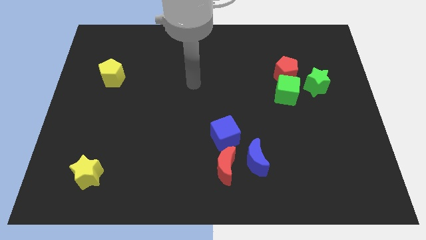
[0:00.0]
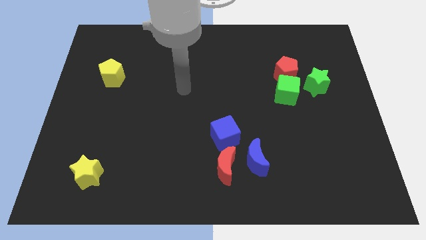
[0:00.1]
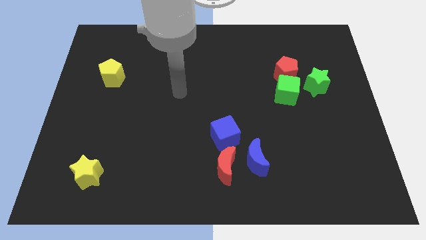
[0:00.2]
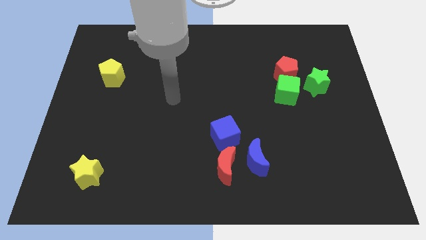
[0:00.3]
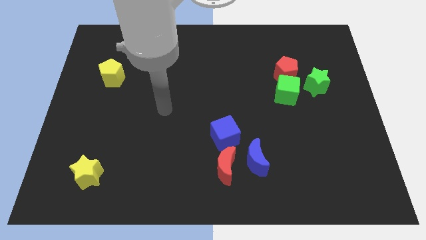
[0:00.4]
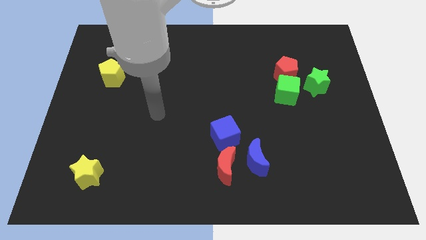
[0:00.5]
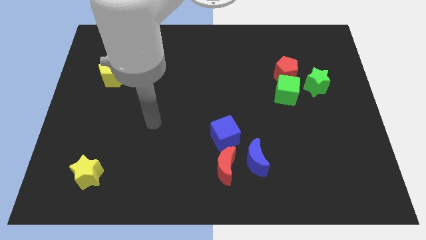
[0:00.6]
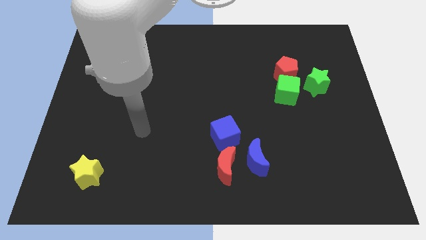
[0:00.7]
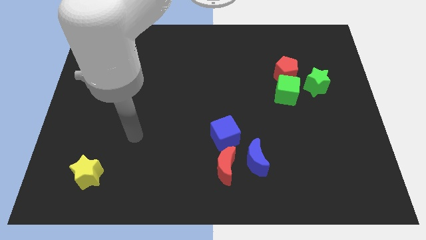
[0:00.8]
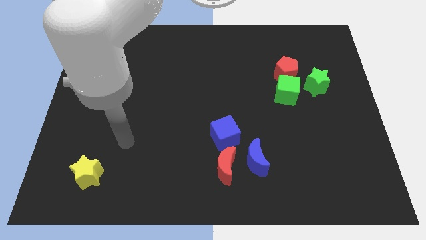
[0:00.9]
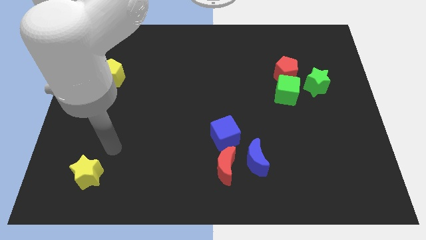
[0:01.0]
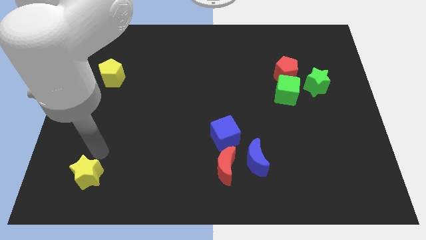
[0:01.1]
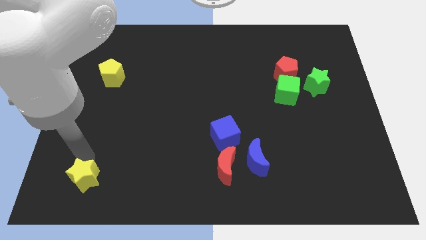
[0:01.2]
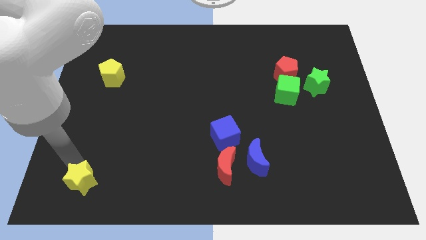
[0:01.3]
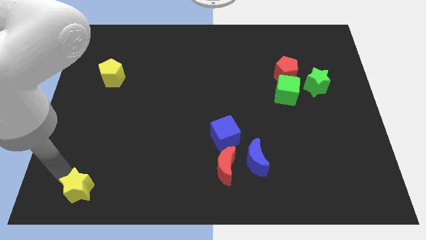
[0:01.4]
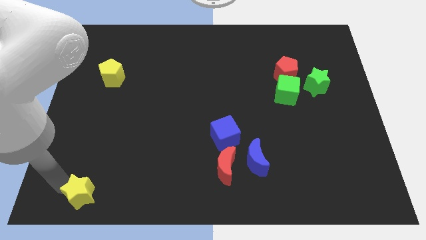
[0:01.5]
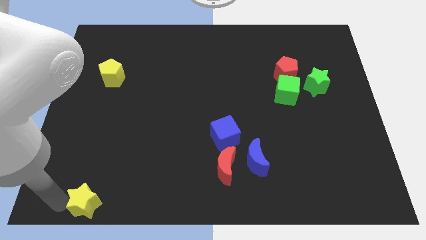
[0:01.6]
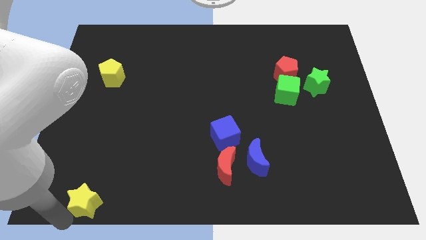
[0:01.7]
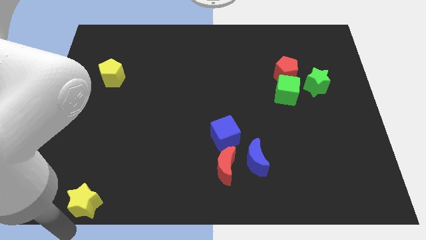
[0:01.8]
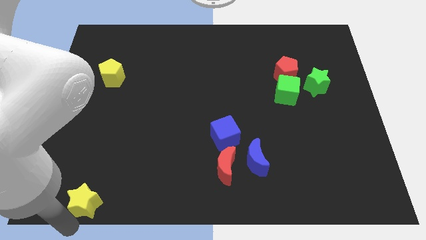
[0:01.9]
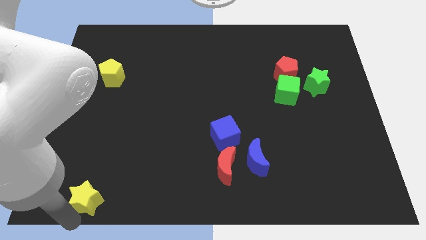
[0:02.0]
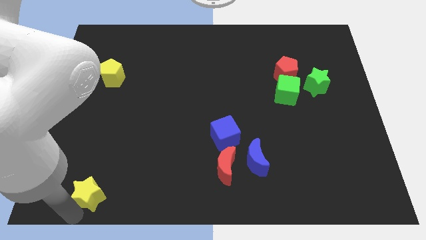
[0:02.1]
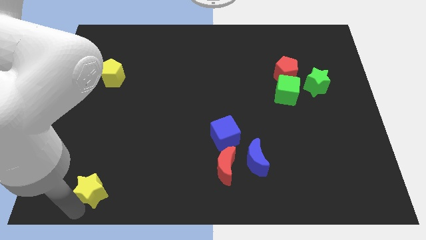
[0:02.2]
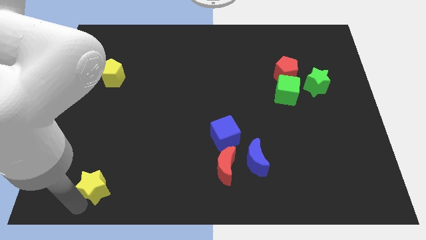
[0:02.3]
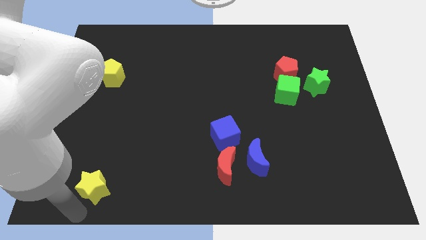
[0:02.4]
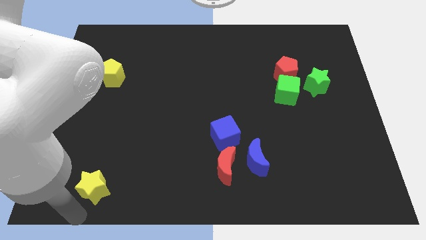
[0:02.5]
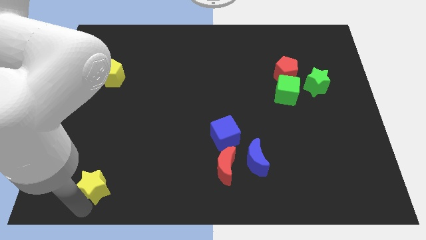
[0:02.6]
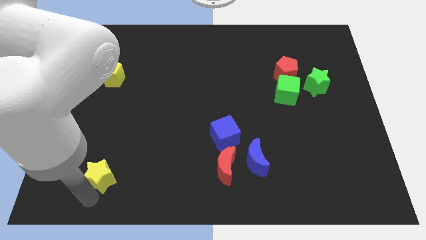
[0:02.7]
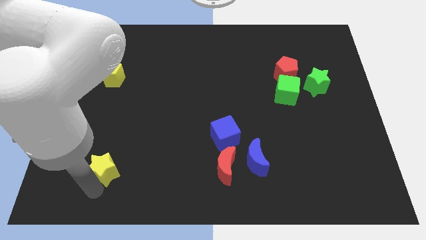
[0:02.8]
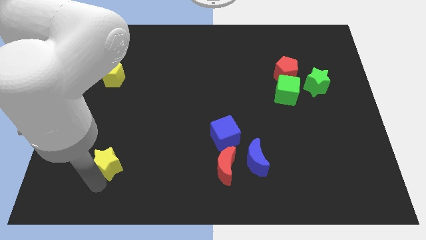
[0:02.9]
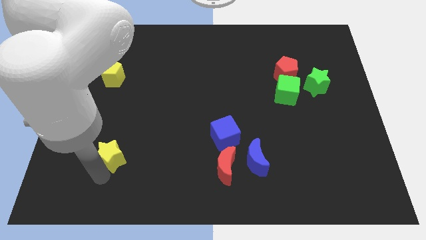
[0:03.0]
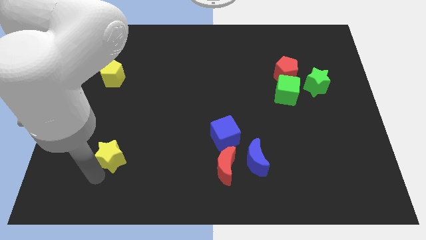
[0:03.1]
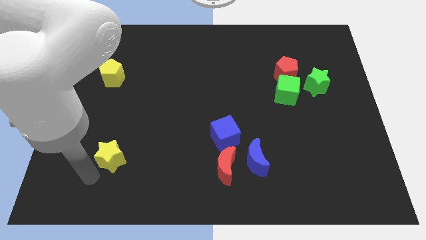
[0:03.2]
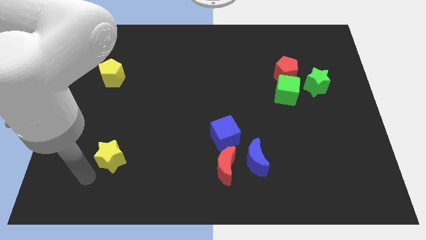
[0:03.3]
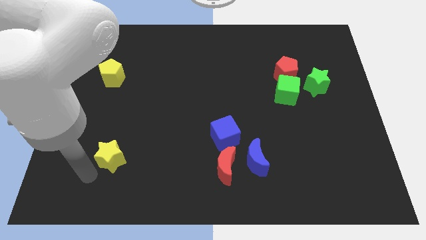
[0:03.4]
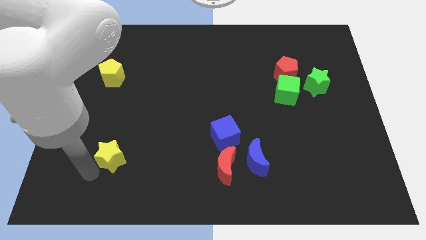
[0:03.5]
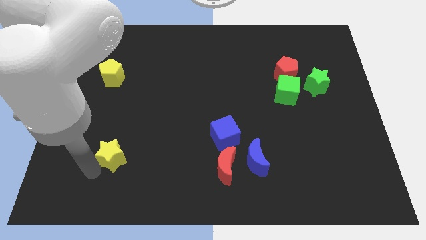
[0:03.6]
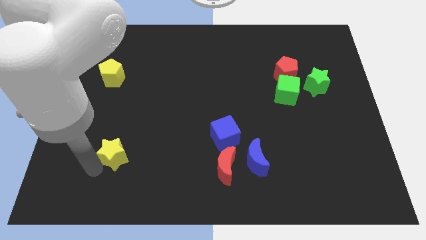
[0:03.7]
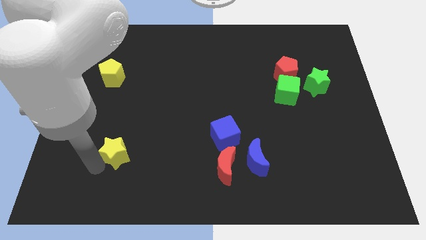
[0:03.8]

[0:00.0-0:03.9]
push the yellow star somewhat diagonally upwards and right

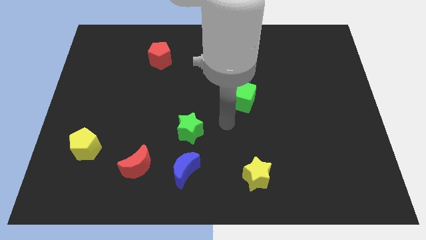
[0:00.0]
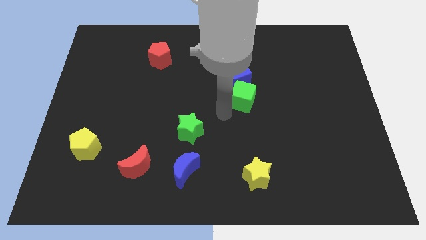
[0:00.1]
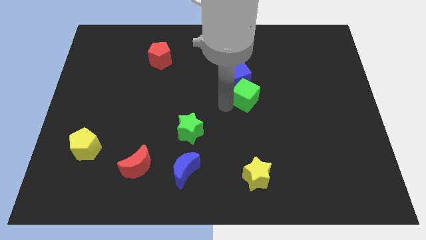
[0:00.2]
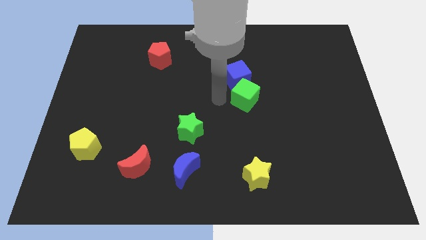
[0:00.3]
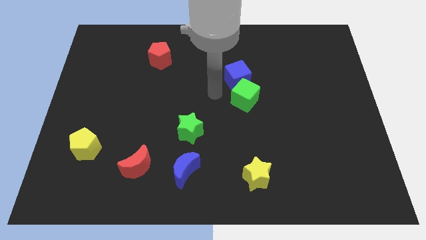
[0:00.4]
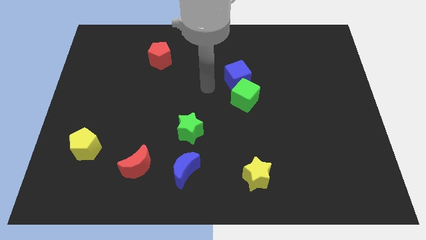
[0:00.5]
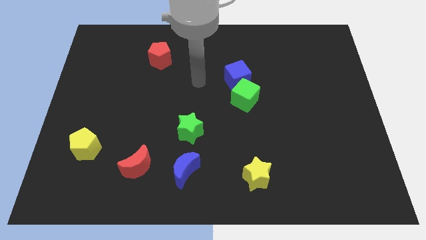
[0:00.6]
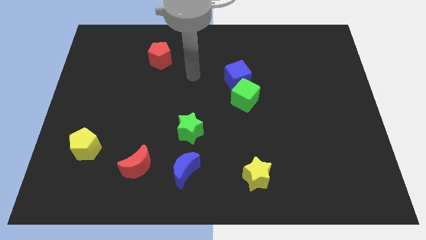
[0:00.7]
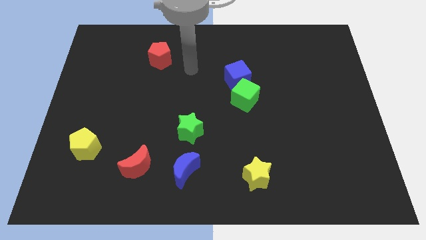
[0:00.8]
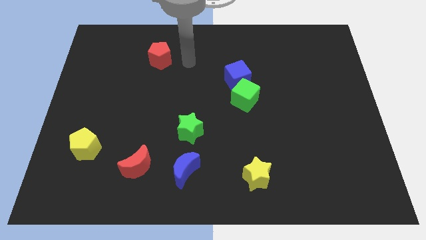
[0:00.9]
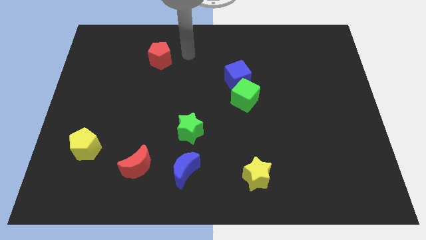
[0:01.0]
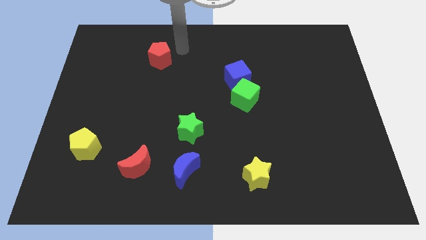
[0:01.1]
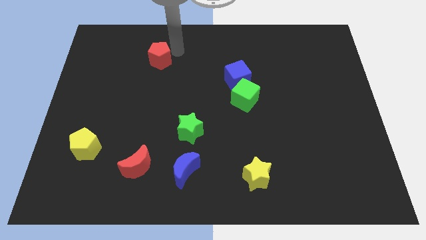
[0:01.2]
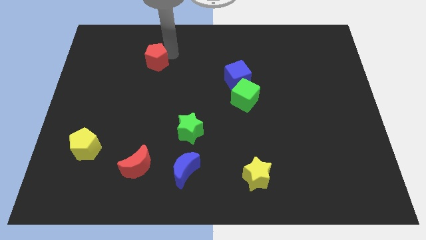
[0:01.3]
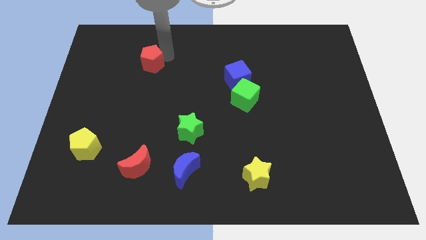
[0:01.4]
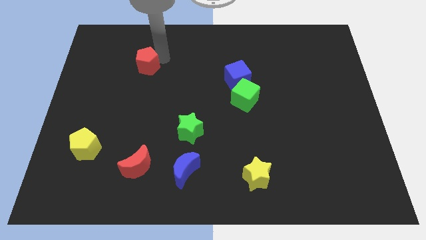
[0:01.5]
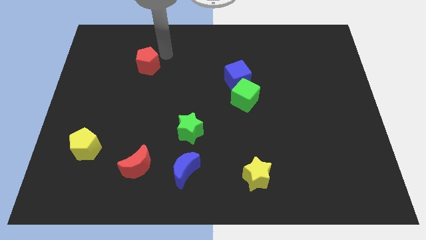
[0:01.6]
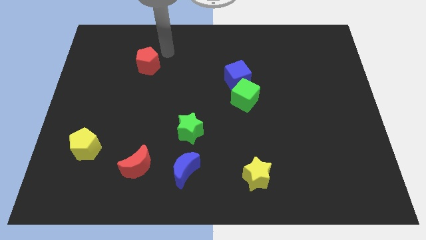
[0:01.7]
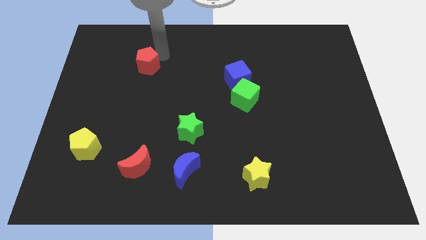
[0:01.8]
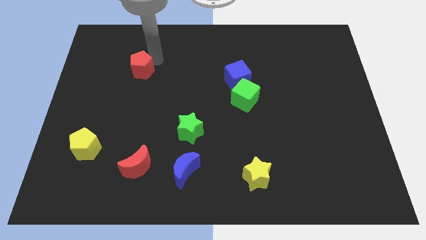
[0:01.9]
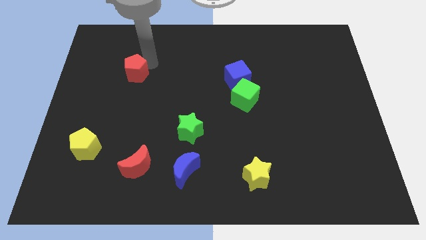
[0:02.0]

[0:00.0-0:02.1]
slide the red pentagon diagonally down and left somewhat

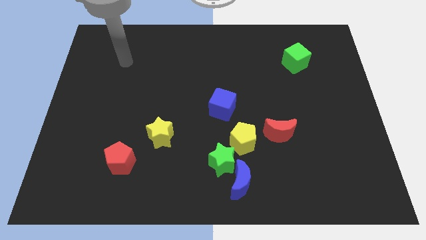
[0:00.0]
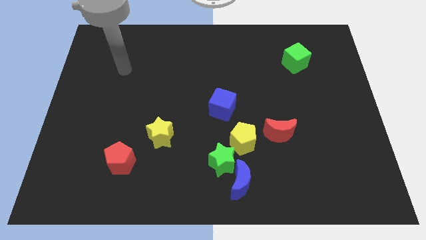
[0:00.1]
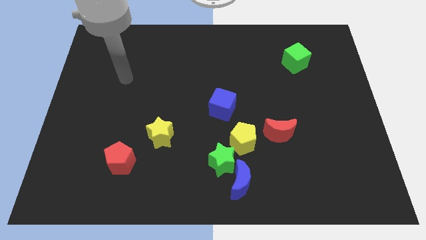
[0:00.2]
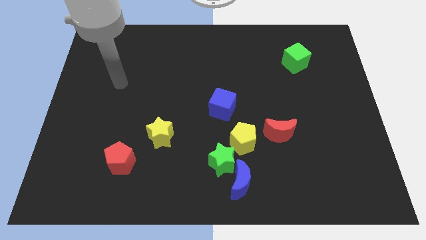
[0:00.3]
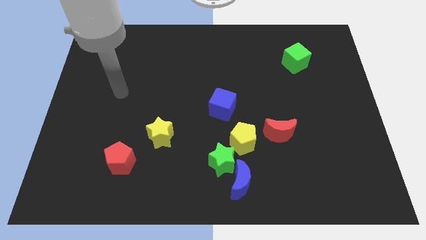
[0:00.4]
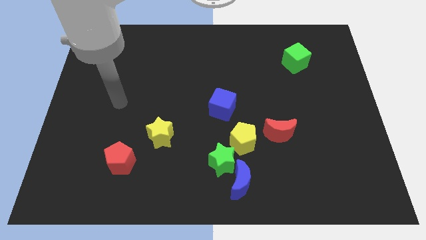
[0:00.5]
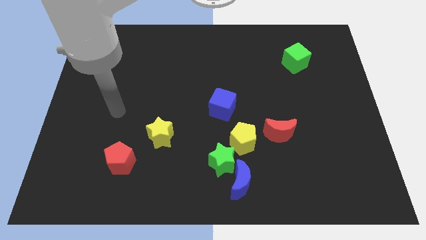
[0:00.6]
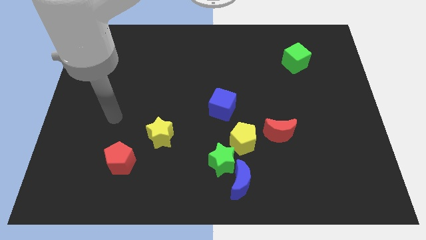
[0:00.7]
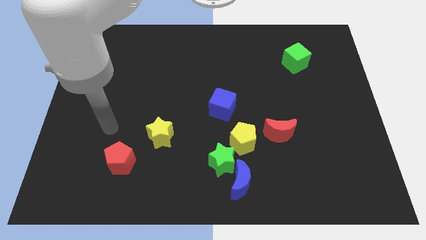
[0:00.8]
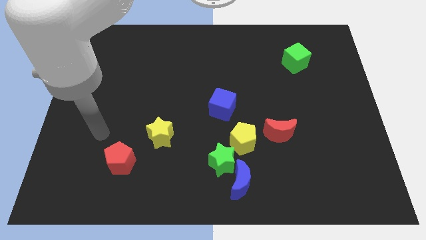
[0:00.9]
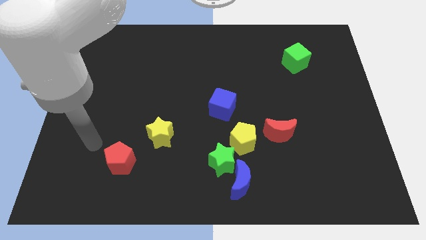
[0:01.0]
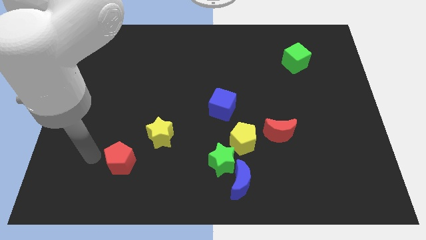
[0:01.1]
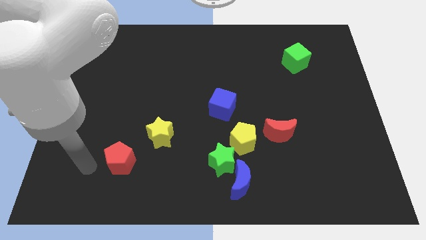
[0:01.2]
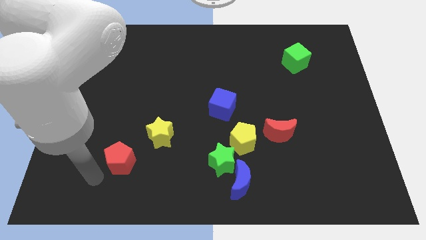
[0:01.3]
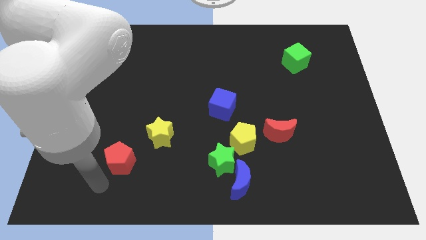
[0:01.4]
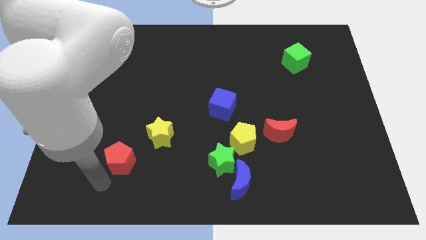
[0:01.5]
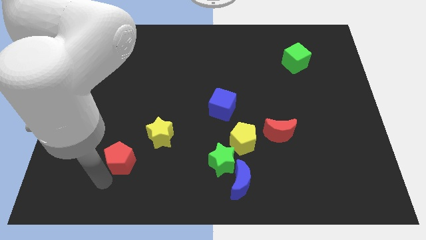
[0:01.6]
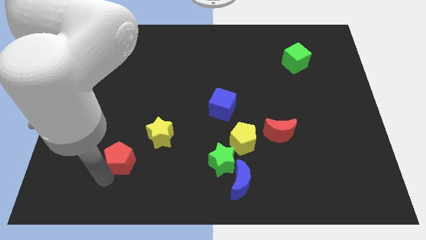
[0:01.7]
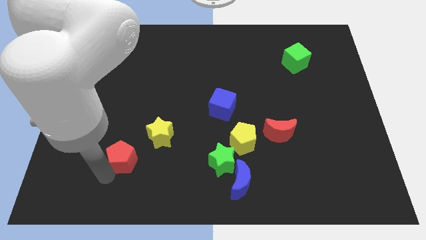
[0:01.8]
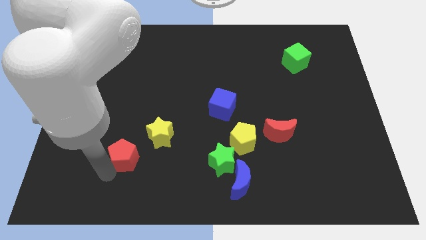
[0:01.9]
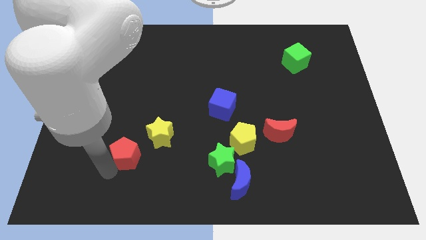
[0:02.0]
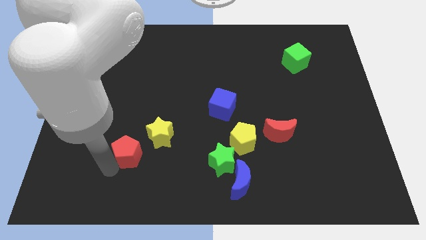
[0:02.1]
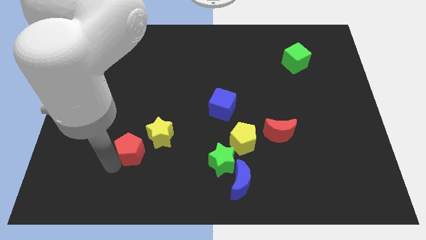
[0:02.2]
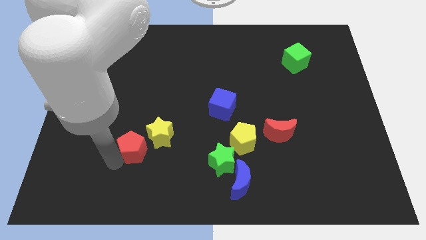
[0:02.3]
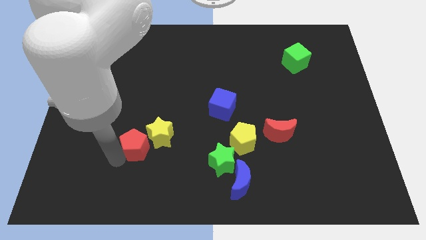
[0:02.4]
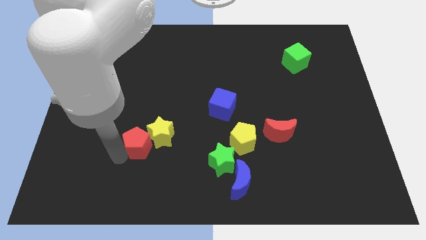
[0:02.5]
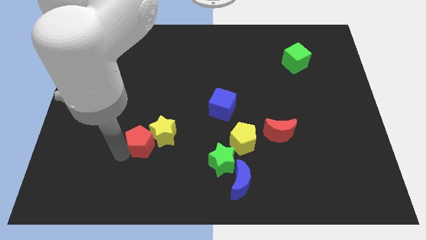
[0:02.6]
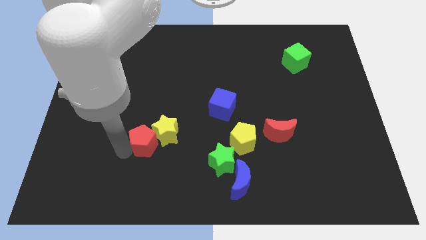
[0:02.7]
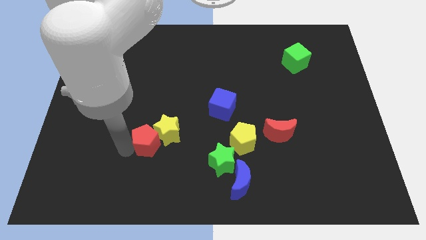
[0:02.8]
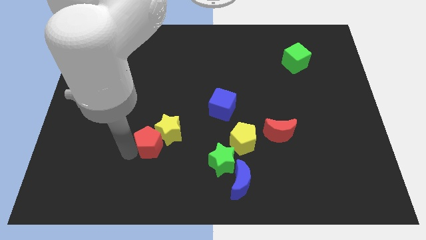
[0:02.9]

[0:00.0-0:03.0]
move the red pentagon slightly up and right
